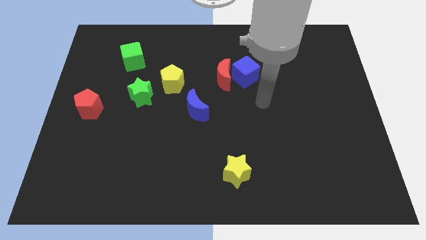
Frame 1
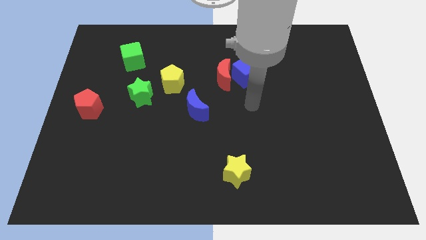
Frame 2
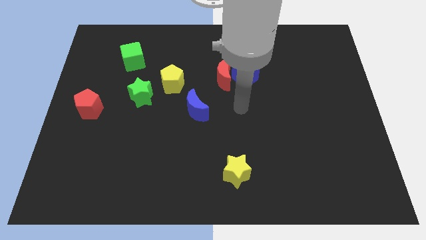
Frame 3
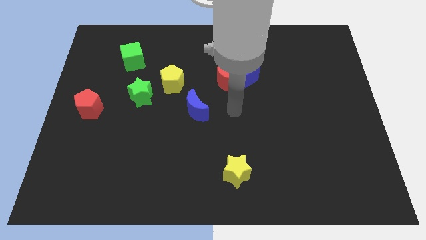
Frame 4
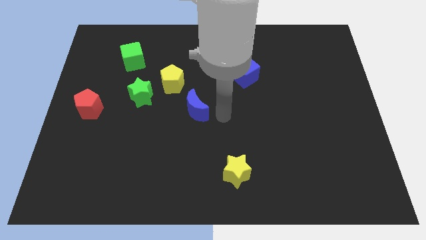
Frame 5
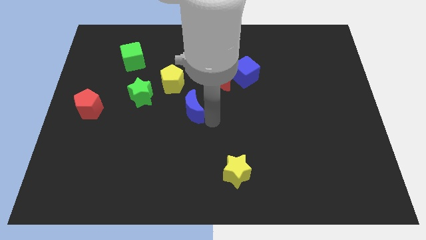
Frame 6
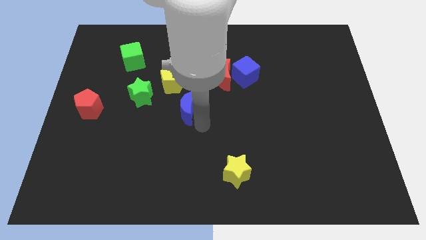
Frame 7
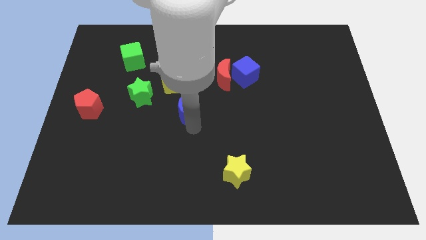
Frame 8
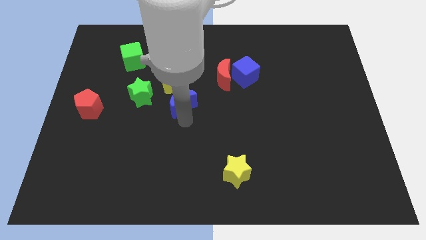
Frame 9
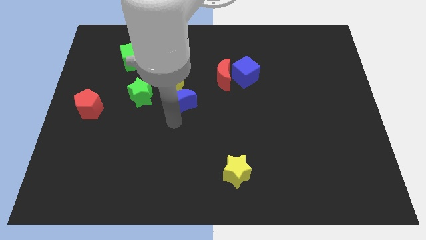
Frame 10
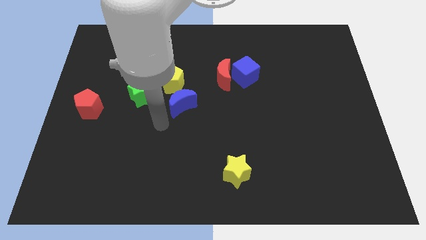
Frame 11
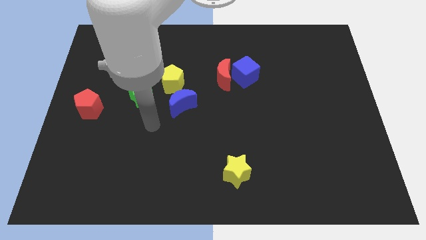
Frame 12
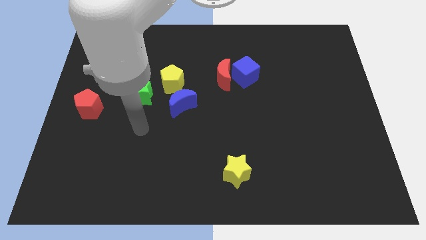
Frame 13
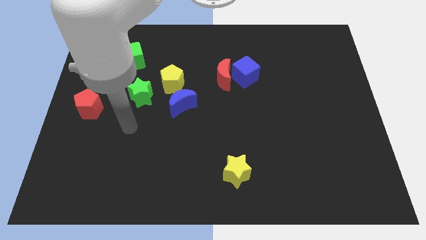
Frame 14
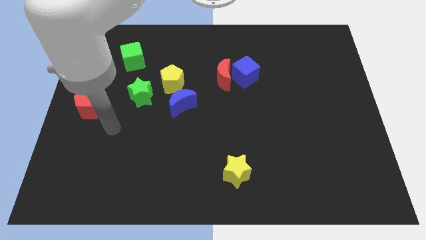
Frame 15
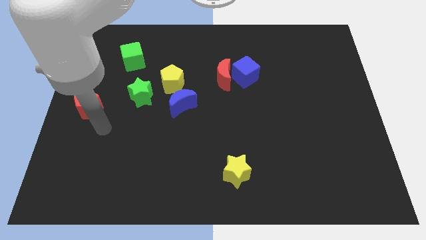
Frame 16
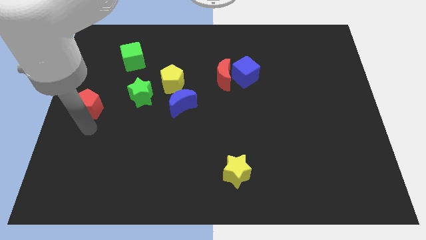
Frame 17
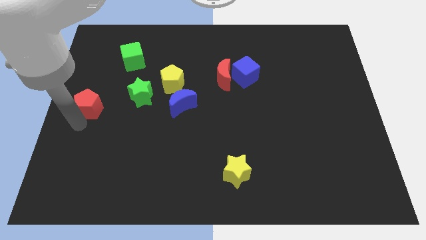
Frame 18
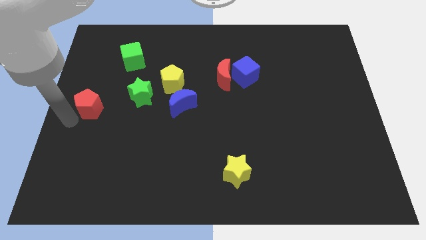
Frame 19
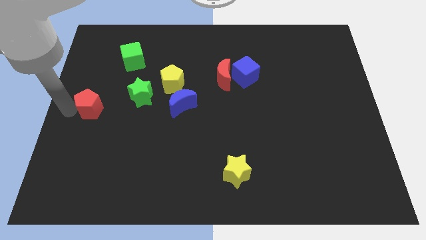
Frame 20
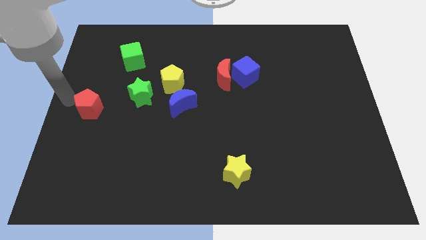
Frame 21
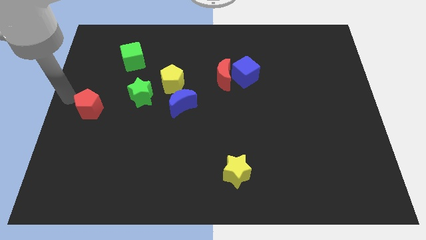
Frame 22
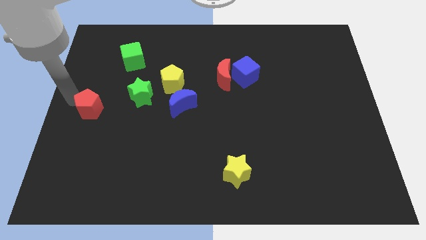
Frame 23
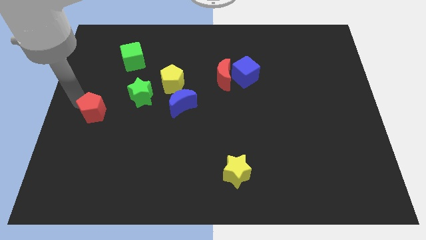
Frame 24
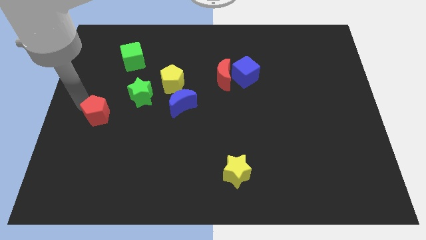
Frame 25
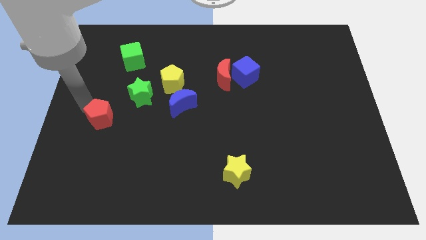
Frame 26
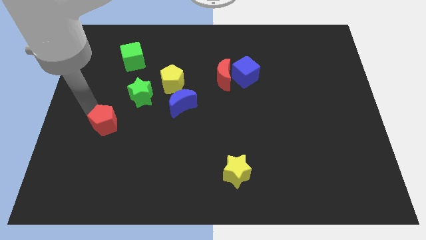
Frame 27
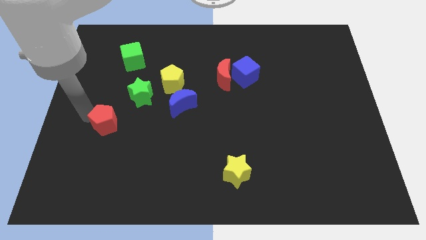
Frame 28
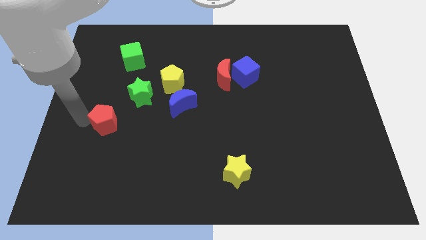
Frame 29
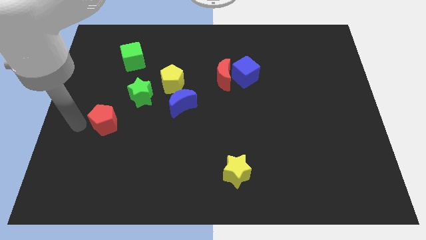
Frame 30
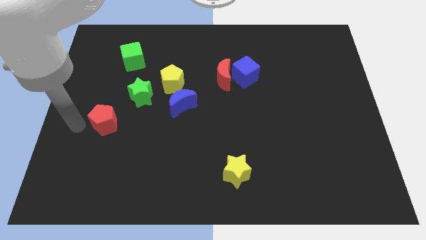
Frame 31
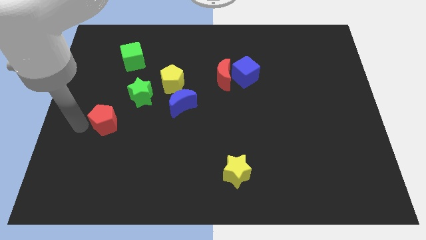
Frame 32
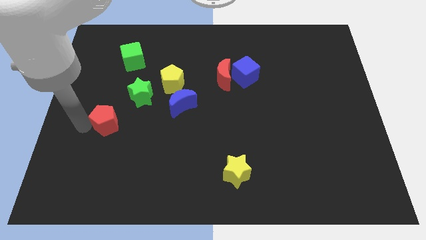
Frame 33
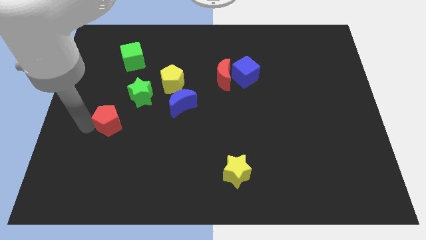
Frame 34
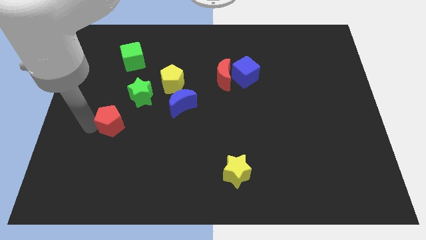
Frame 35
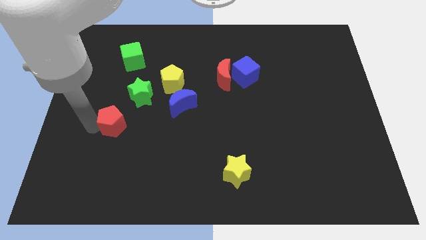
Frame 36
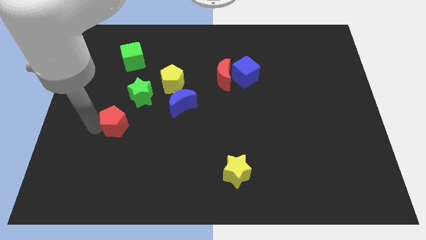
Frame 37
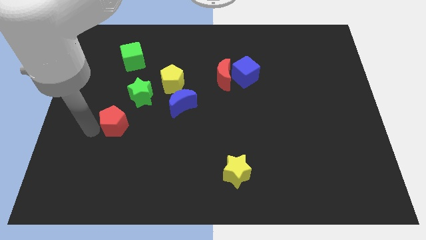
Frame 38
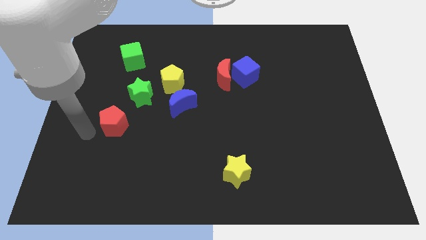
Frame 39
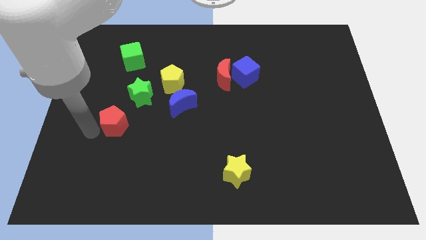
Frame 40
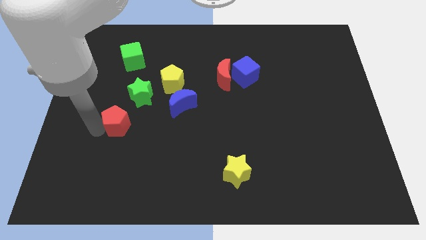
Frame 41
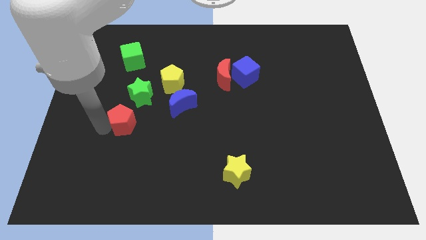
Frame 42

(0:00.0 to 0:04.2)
slightly slide the red pentagon right

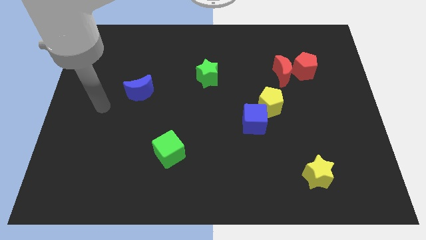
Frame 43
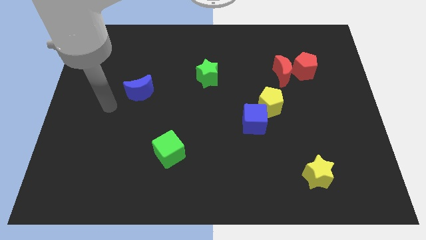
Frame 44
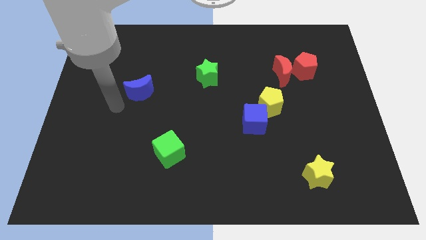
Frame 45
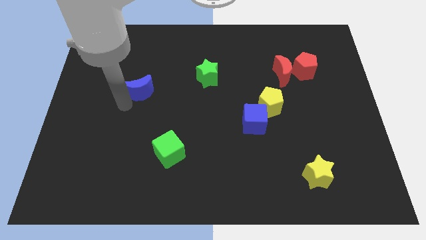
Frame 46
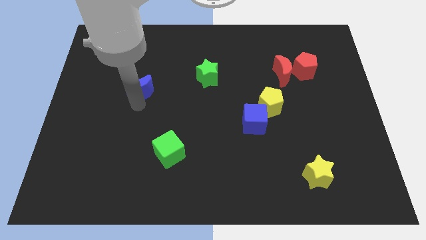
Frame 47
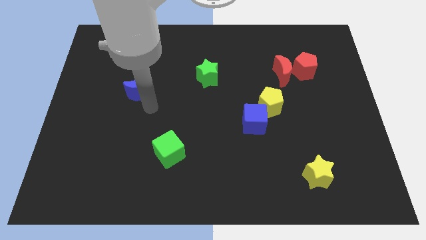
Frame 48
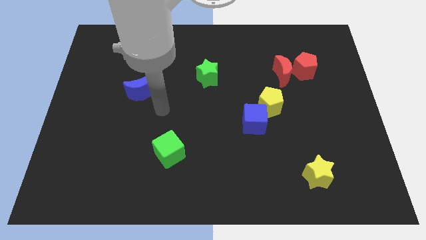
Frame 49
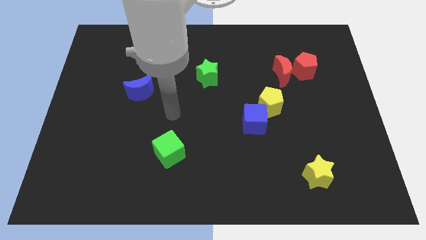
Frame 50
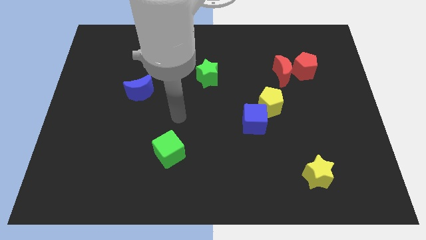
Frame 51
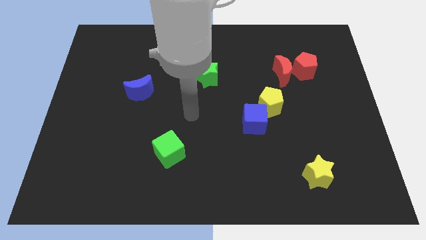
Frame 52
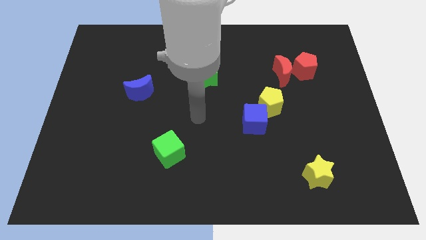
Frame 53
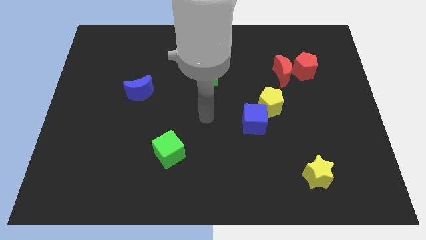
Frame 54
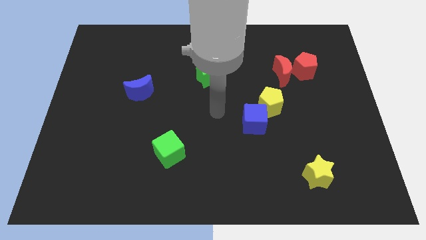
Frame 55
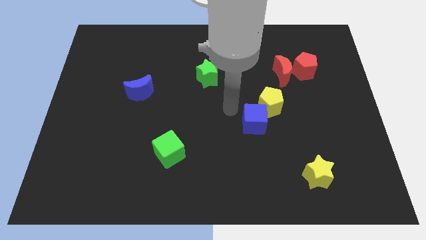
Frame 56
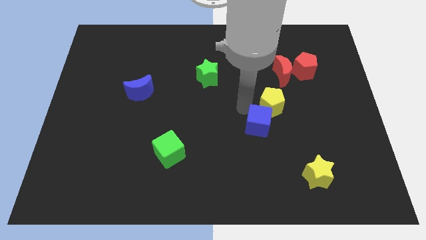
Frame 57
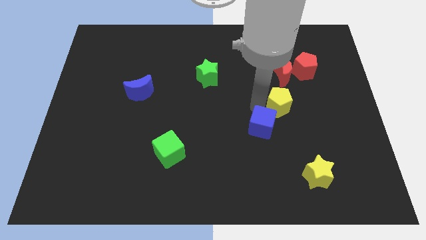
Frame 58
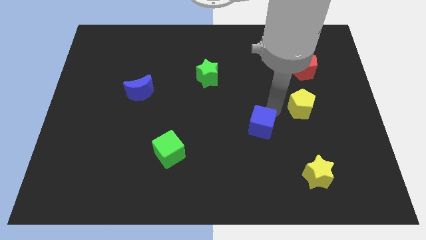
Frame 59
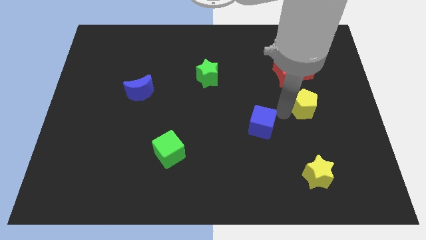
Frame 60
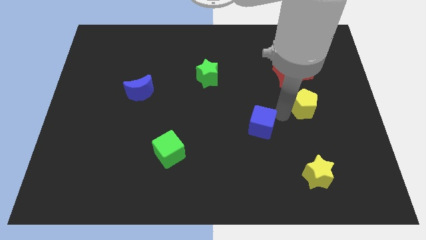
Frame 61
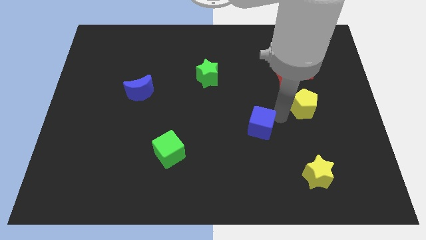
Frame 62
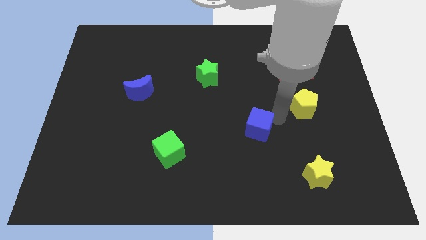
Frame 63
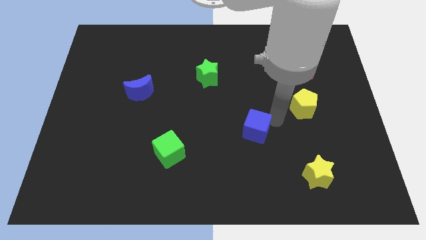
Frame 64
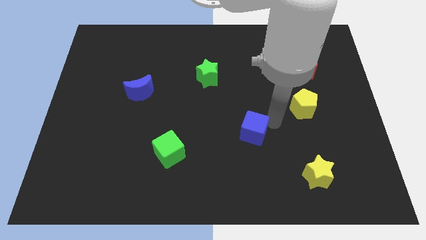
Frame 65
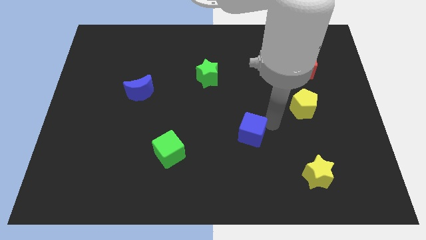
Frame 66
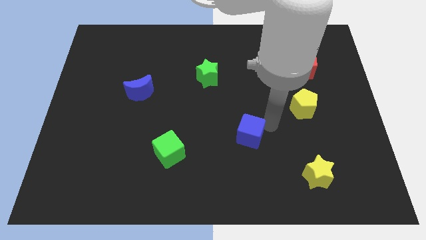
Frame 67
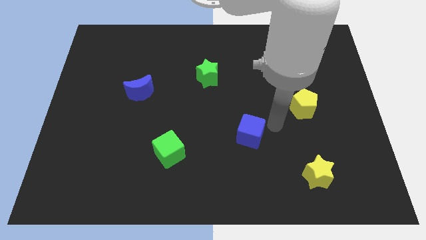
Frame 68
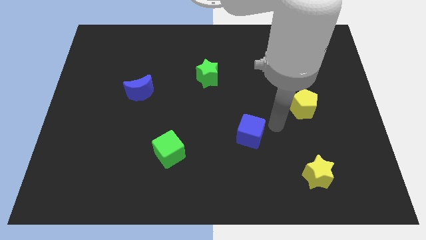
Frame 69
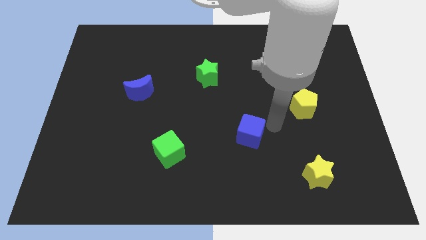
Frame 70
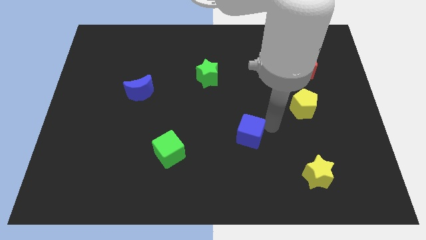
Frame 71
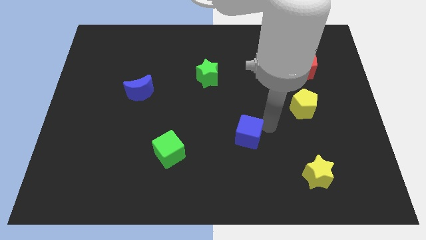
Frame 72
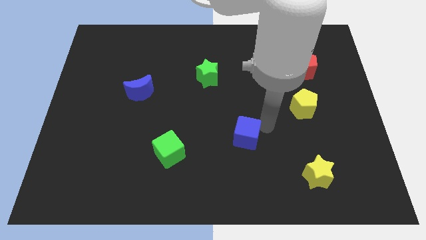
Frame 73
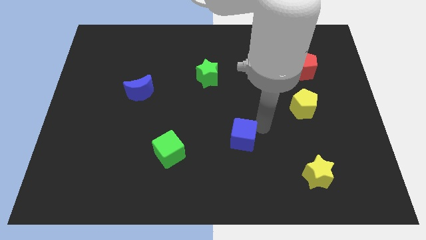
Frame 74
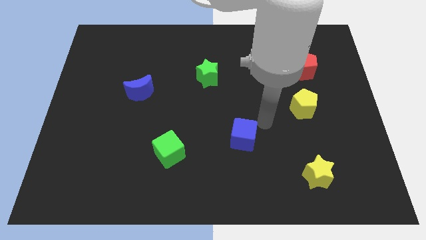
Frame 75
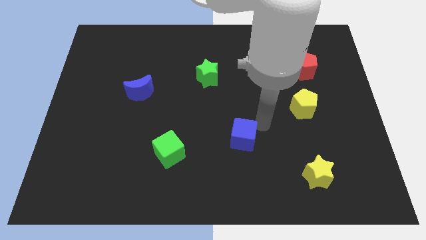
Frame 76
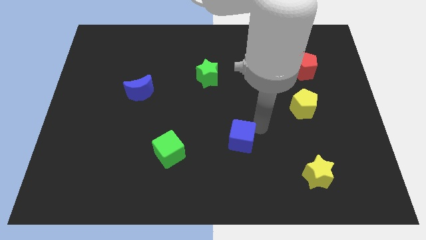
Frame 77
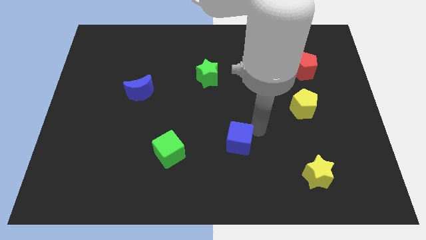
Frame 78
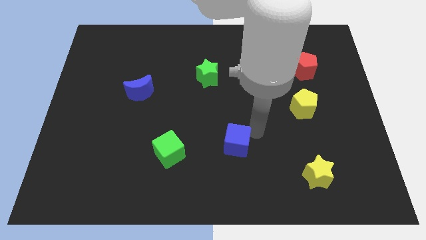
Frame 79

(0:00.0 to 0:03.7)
slide the blue cube a bit diagonally downwards and to the left
